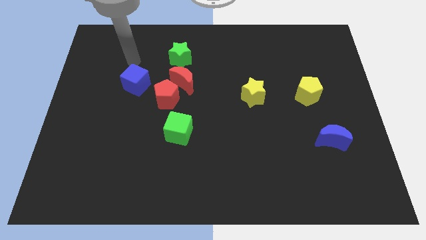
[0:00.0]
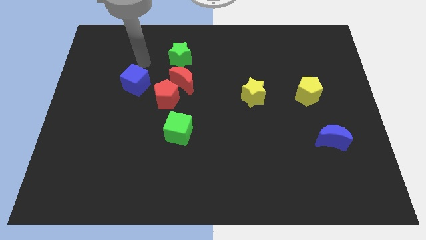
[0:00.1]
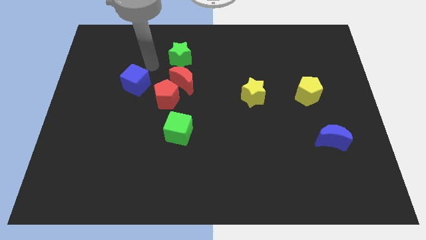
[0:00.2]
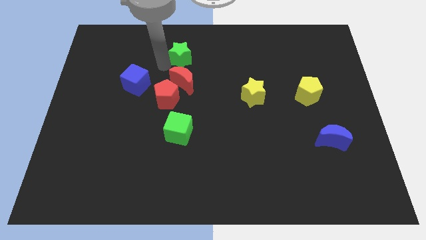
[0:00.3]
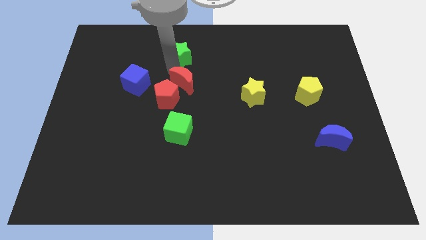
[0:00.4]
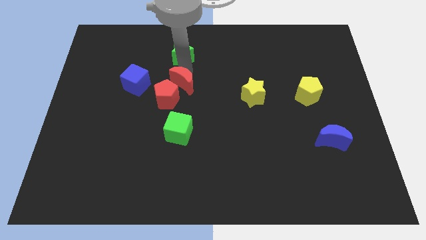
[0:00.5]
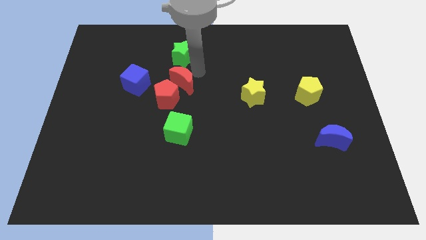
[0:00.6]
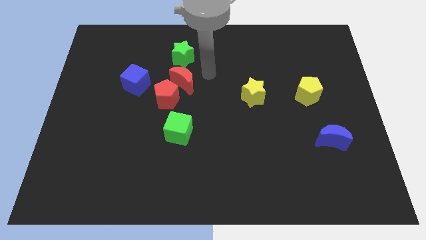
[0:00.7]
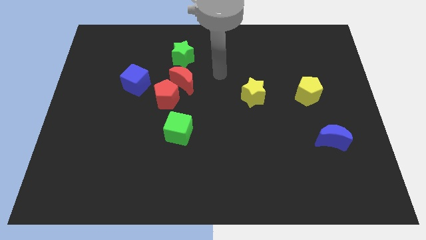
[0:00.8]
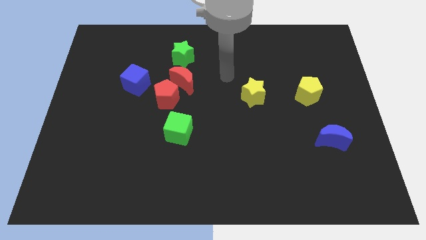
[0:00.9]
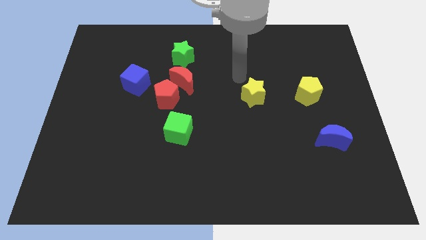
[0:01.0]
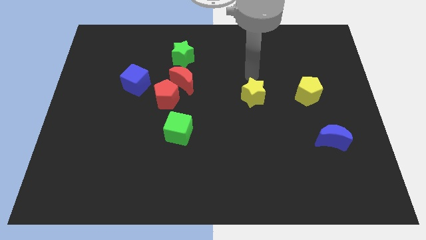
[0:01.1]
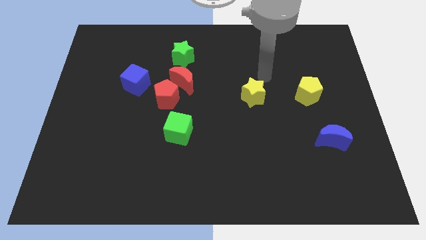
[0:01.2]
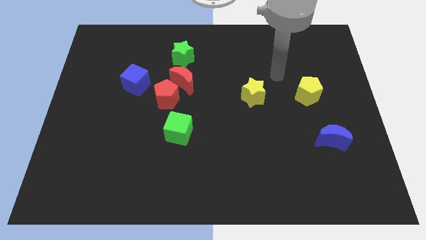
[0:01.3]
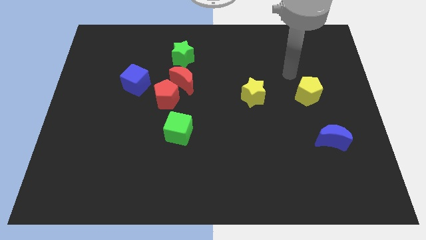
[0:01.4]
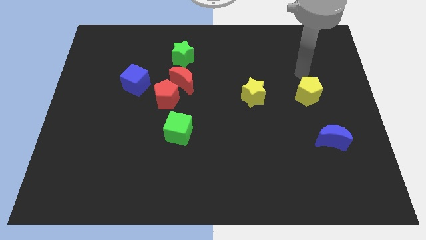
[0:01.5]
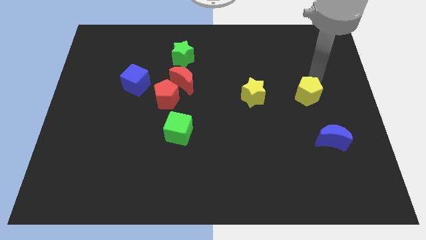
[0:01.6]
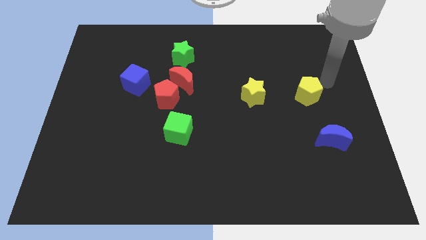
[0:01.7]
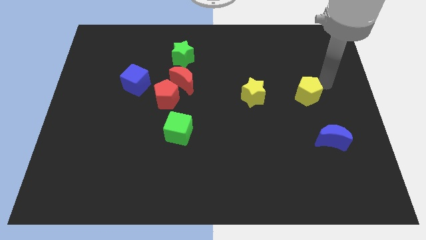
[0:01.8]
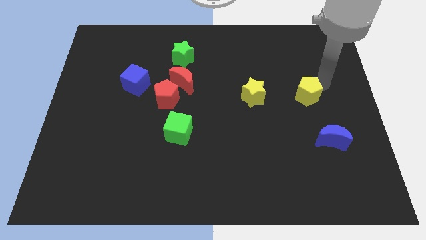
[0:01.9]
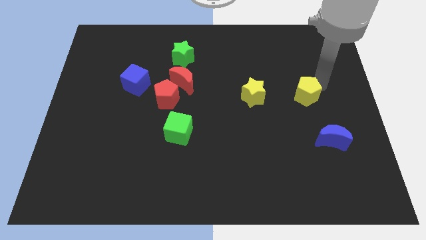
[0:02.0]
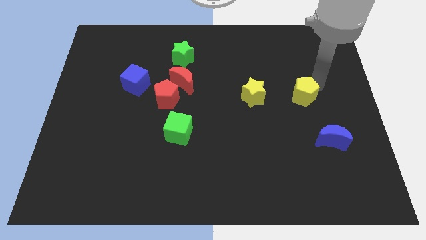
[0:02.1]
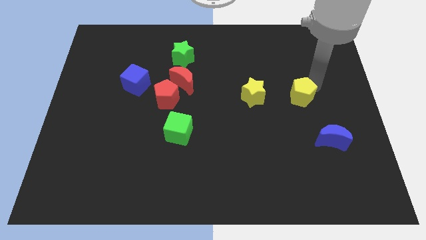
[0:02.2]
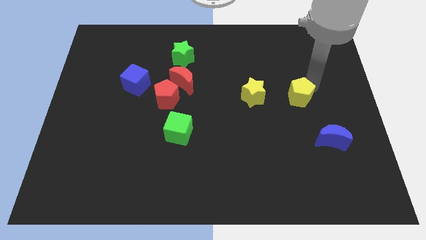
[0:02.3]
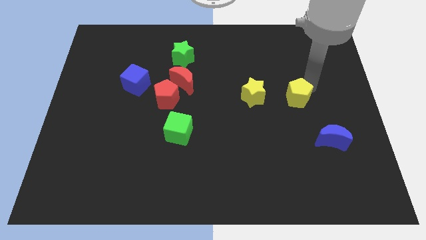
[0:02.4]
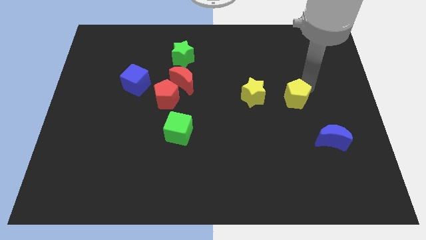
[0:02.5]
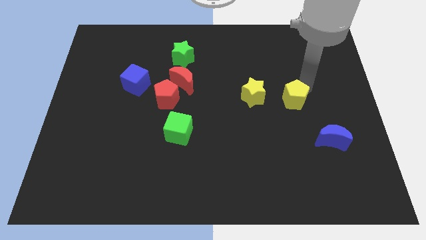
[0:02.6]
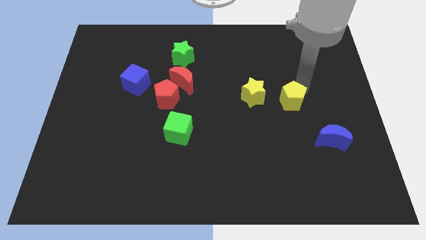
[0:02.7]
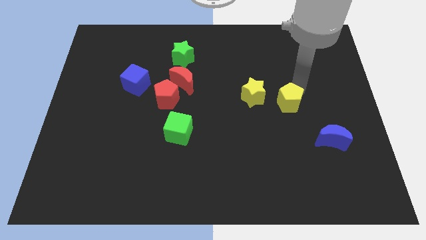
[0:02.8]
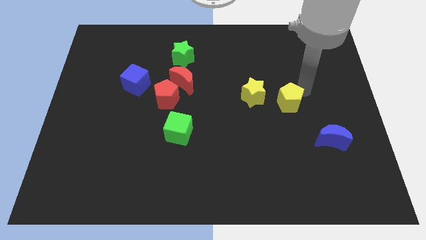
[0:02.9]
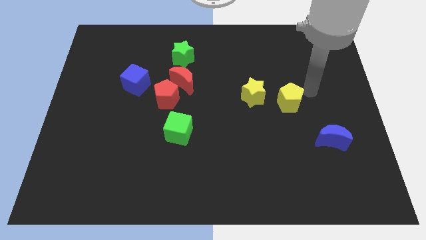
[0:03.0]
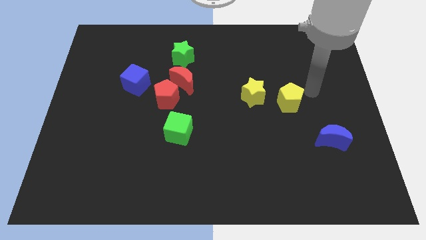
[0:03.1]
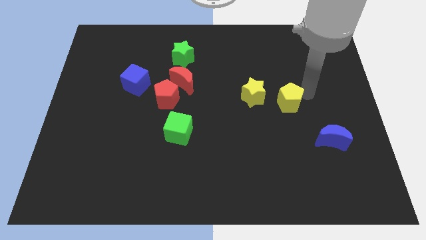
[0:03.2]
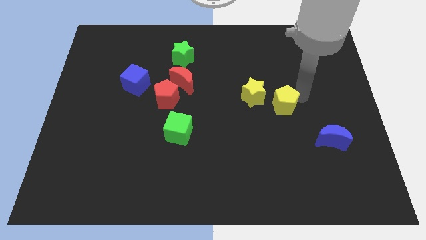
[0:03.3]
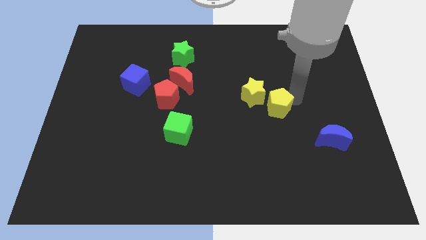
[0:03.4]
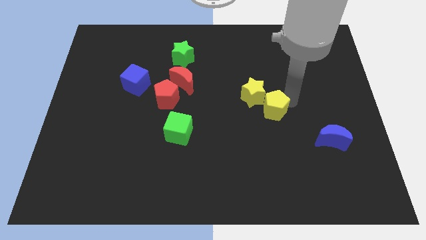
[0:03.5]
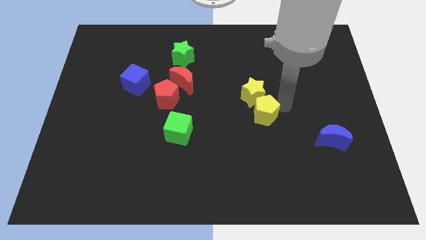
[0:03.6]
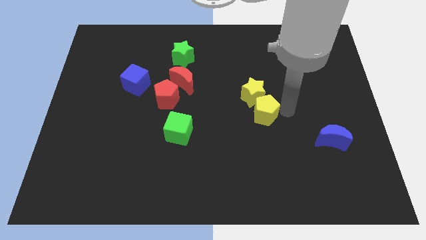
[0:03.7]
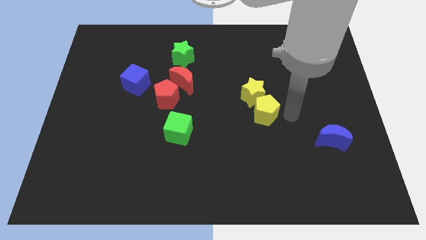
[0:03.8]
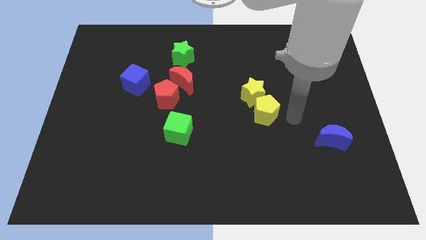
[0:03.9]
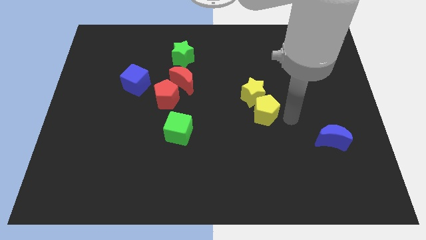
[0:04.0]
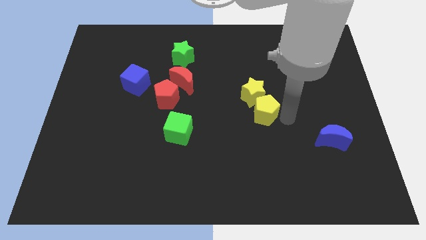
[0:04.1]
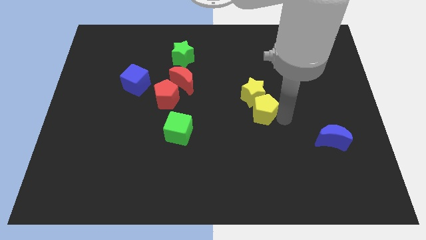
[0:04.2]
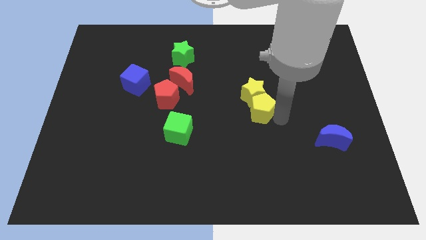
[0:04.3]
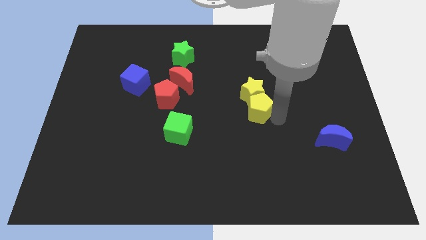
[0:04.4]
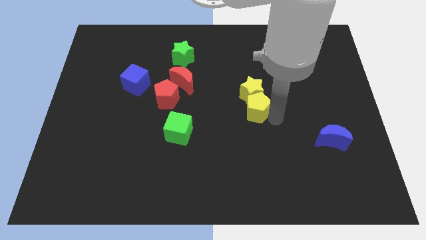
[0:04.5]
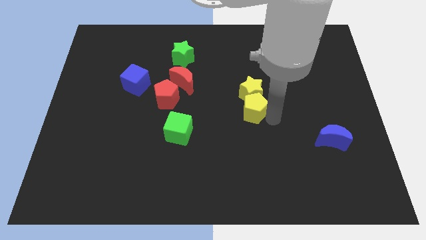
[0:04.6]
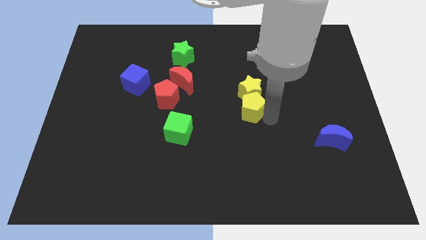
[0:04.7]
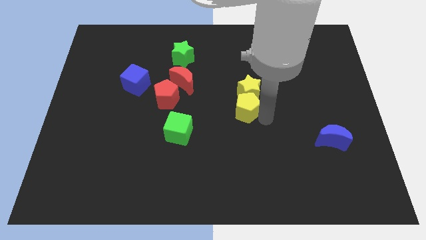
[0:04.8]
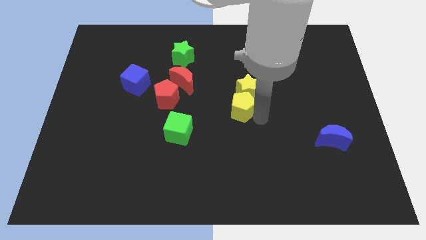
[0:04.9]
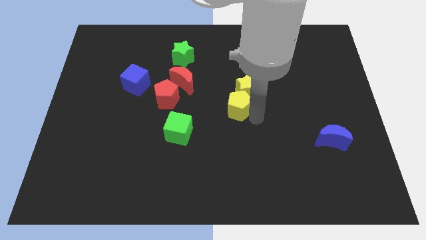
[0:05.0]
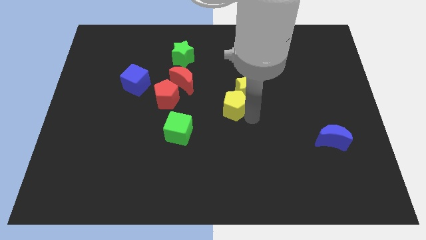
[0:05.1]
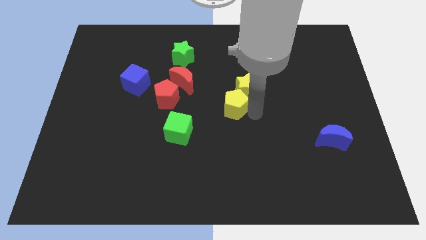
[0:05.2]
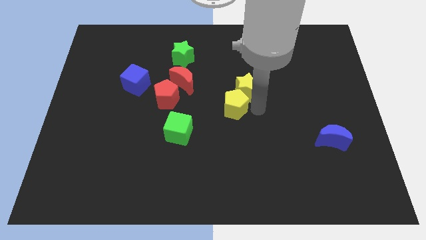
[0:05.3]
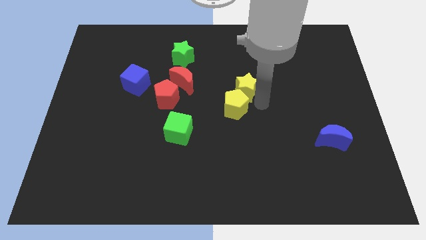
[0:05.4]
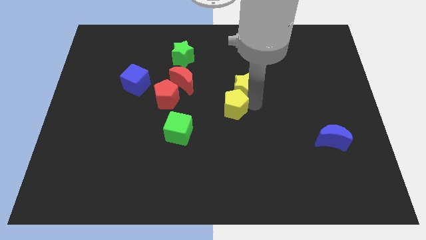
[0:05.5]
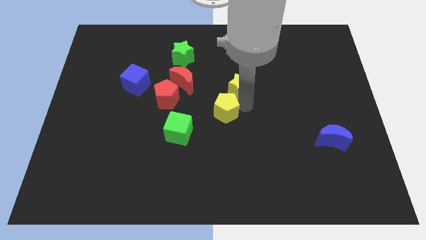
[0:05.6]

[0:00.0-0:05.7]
slide the yellow pentagon diagonally up and to the right of the green cube

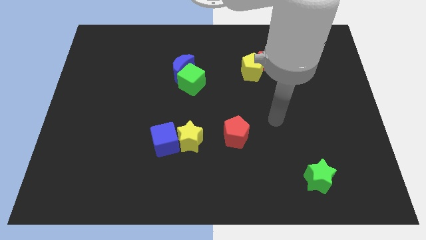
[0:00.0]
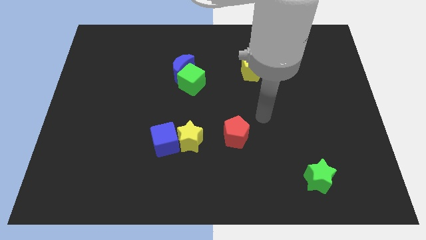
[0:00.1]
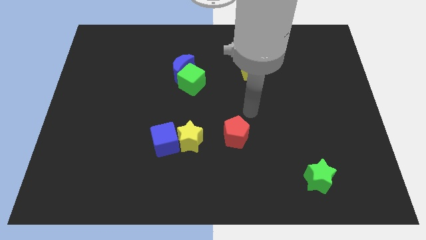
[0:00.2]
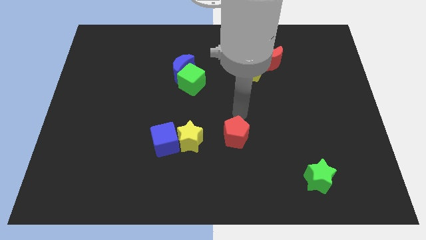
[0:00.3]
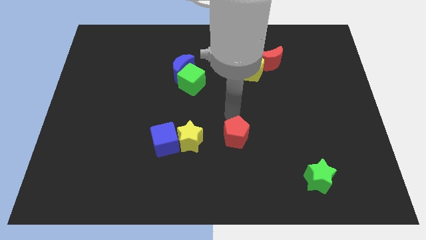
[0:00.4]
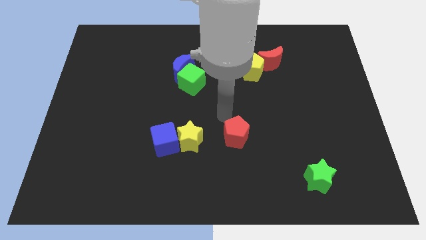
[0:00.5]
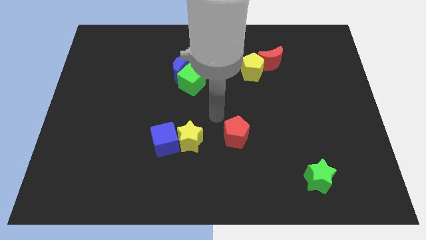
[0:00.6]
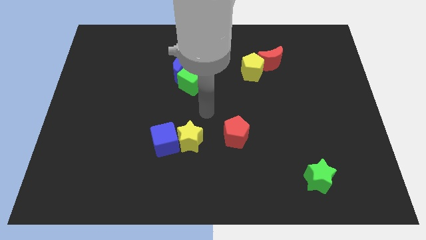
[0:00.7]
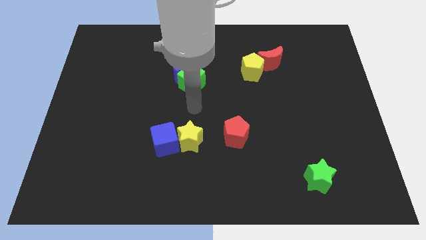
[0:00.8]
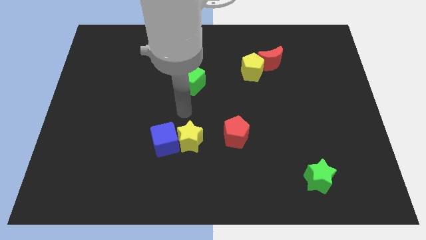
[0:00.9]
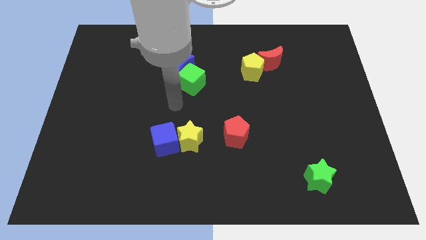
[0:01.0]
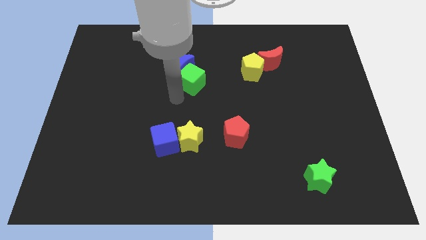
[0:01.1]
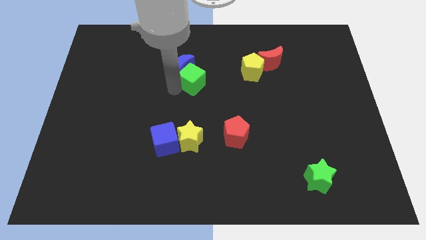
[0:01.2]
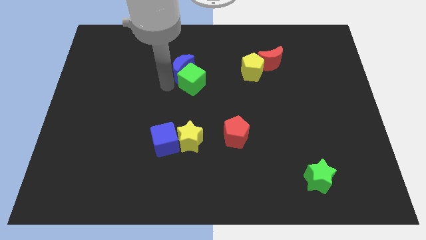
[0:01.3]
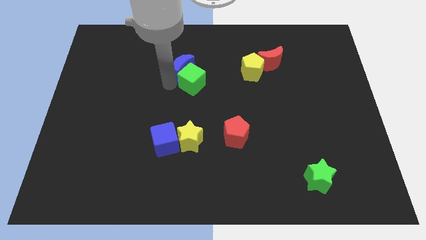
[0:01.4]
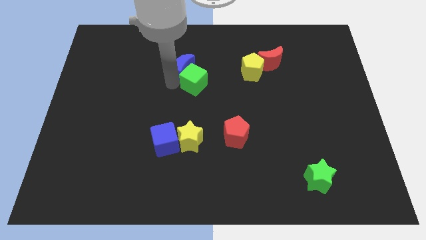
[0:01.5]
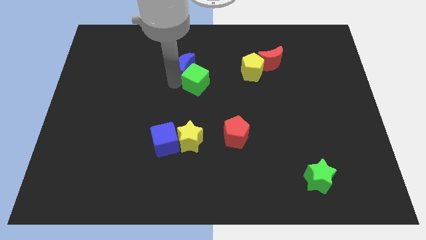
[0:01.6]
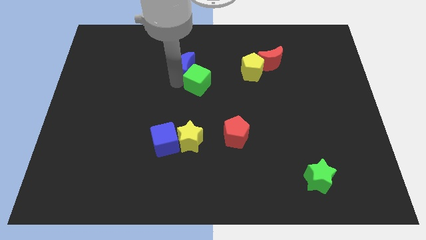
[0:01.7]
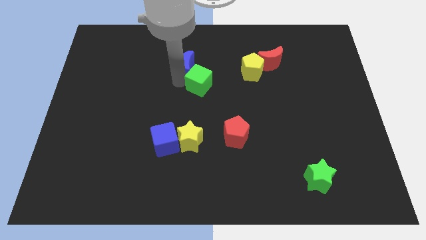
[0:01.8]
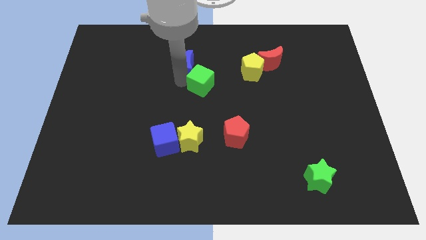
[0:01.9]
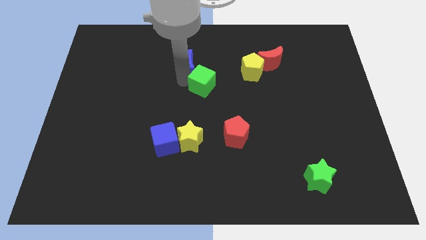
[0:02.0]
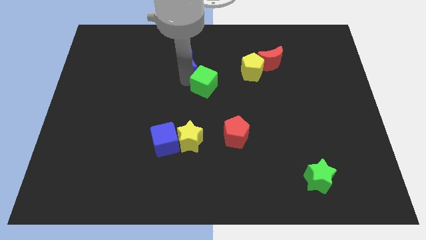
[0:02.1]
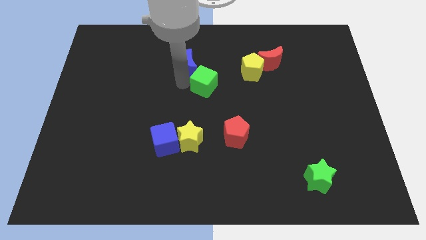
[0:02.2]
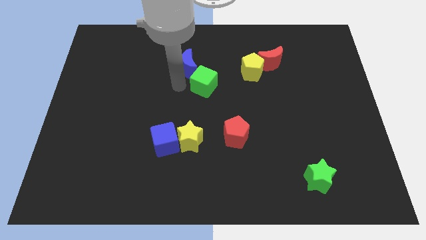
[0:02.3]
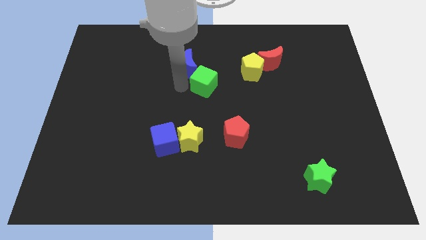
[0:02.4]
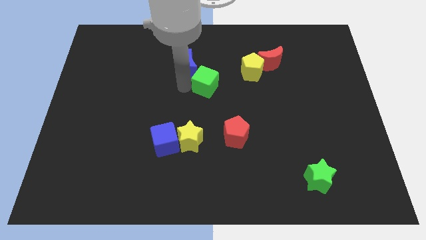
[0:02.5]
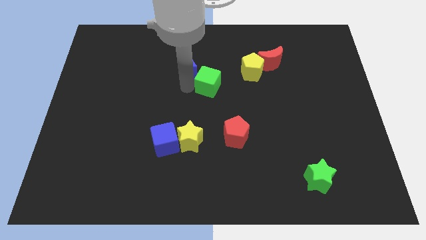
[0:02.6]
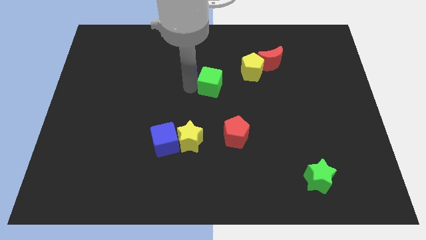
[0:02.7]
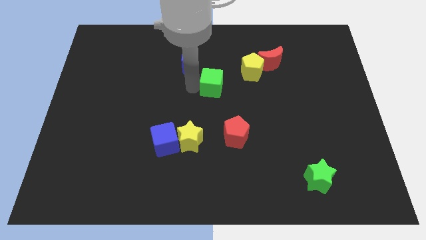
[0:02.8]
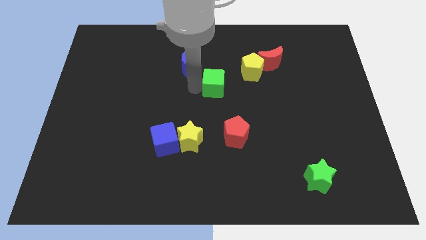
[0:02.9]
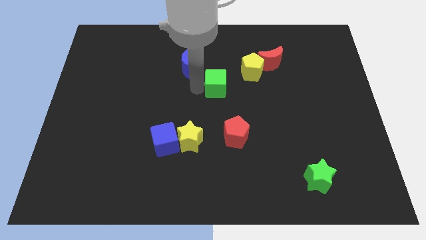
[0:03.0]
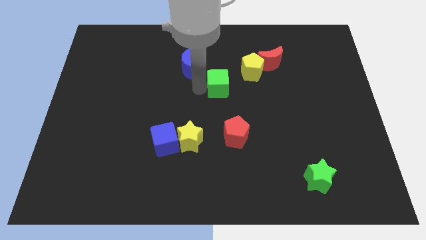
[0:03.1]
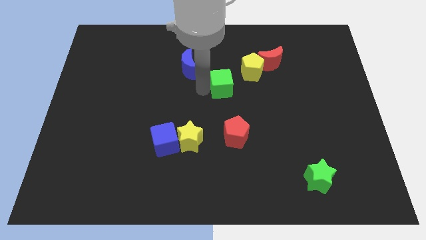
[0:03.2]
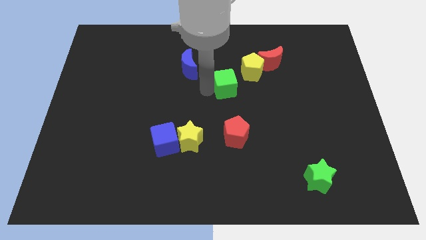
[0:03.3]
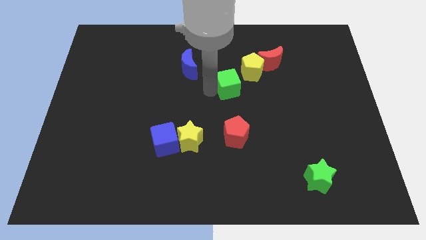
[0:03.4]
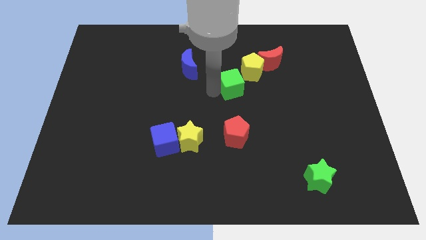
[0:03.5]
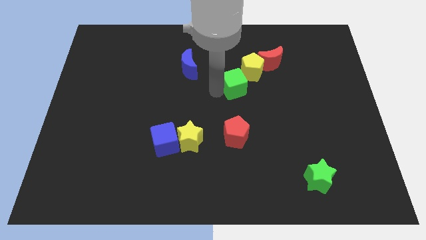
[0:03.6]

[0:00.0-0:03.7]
put the green cube diagonally down and to the left of the red moon
